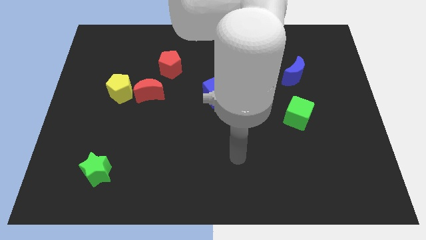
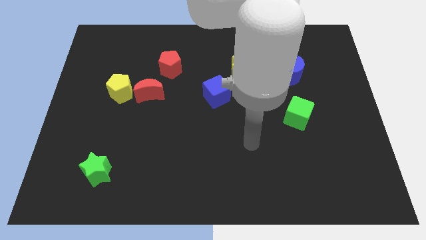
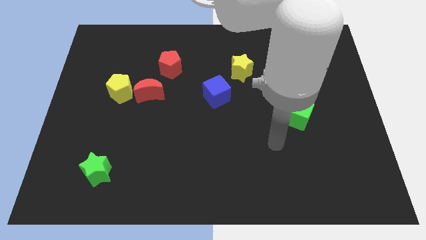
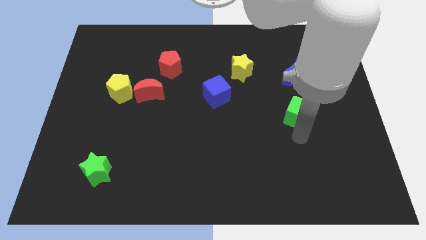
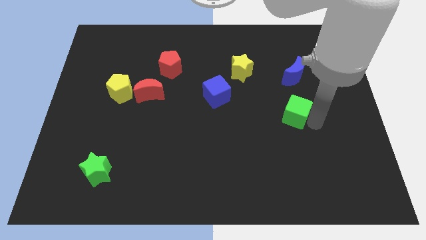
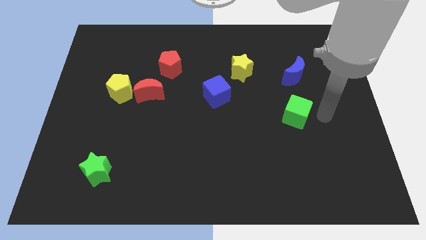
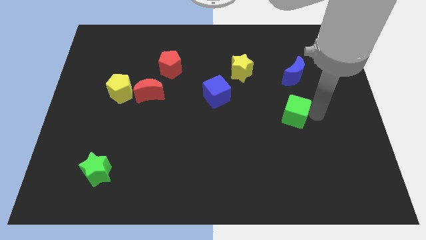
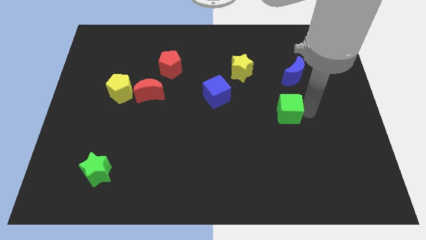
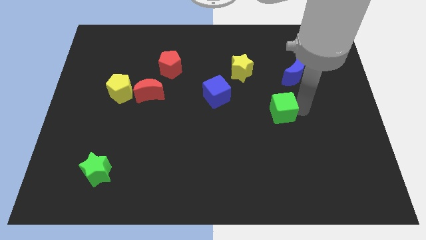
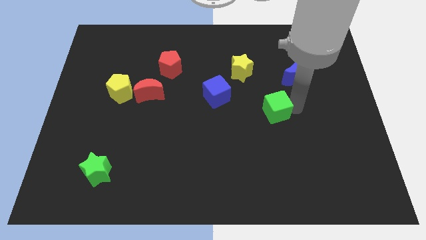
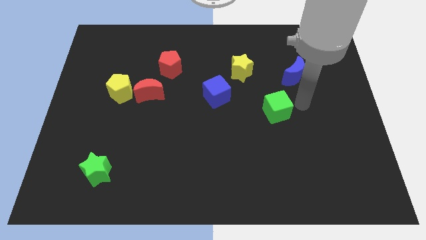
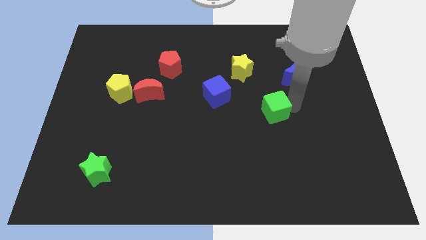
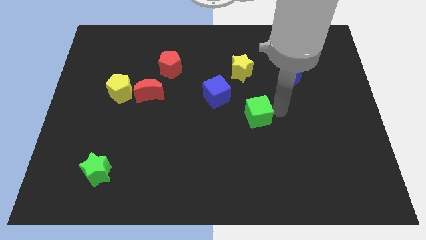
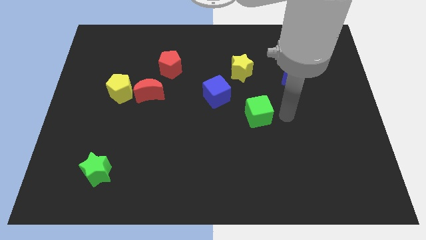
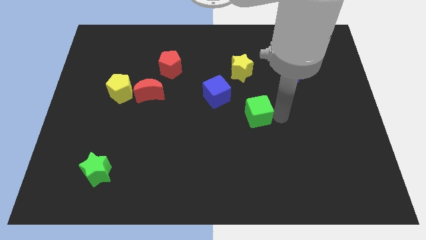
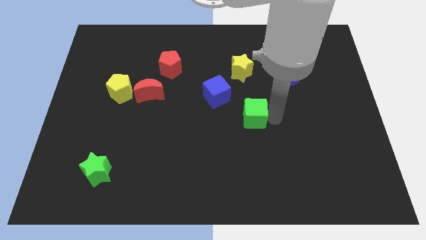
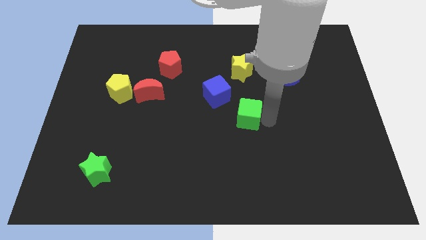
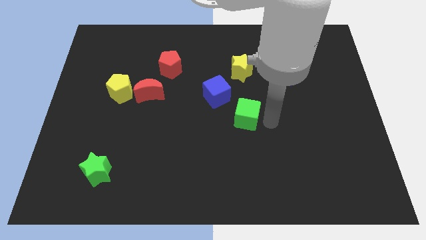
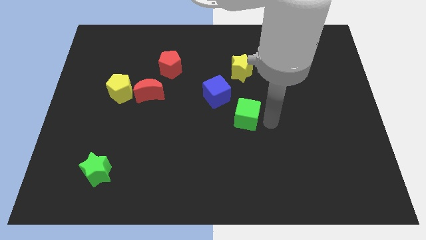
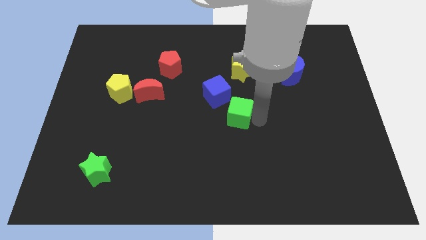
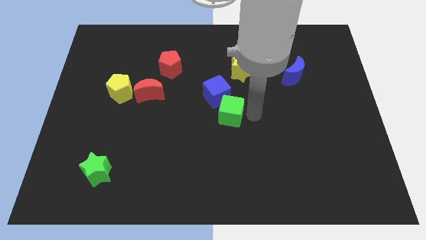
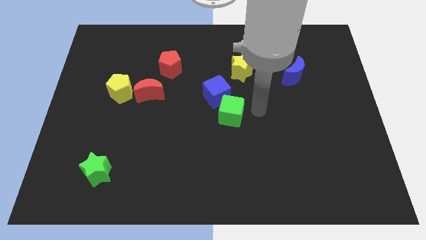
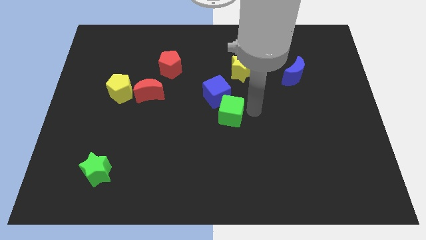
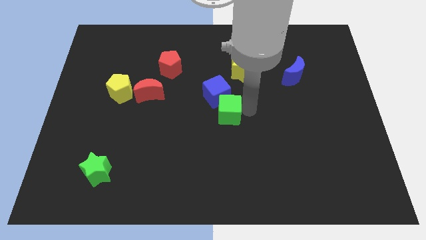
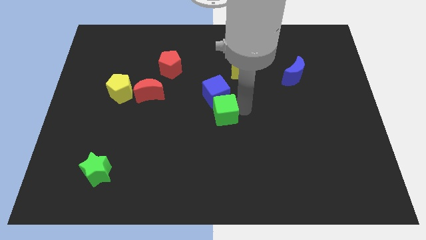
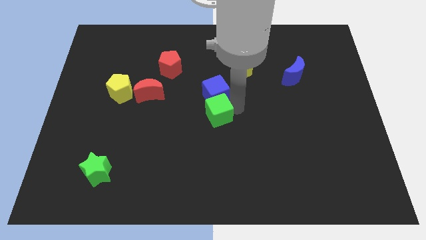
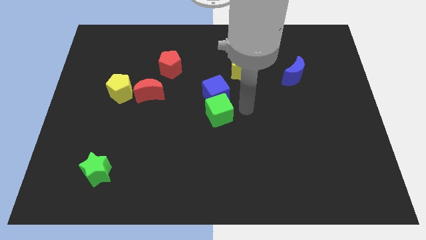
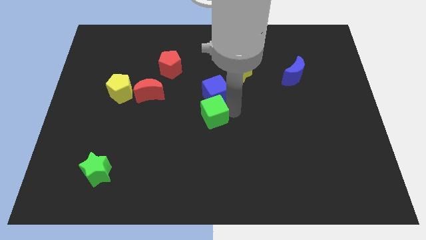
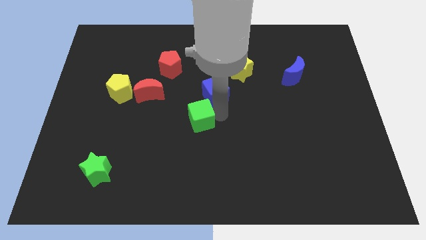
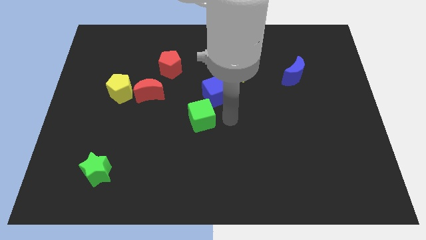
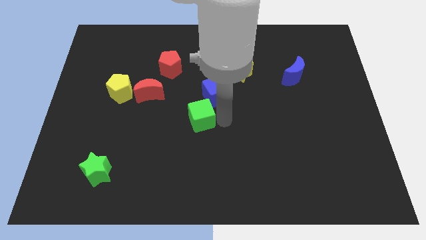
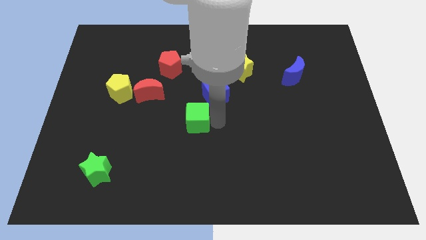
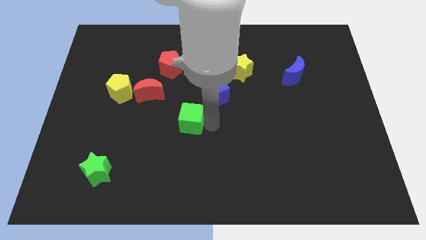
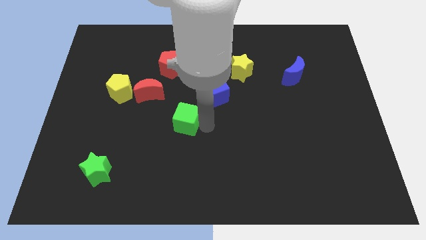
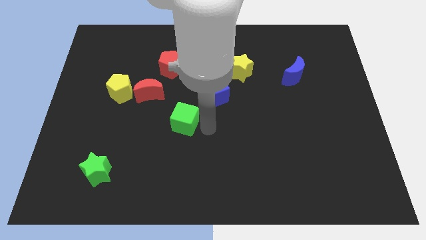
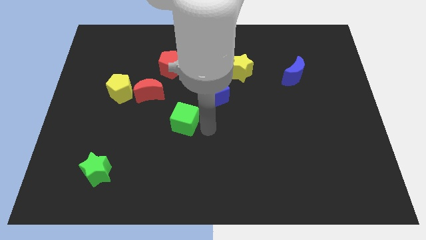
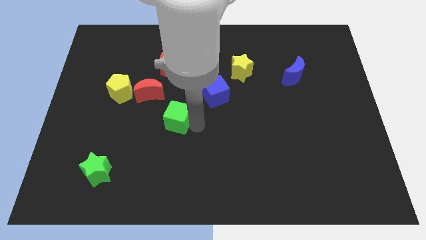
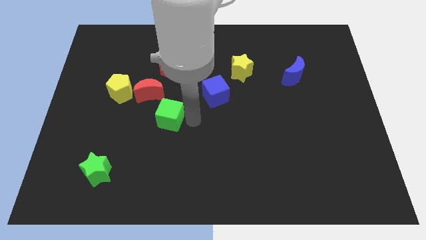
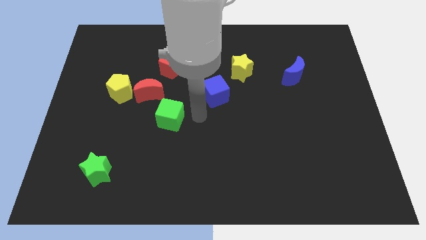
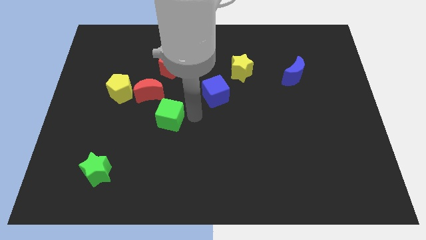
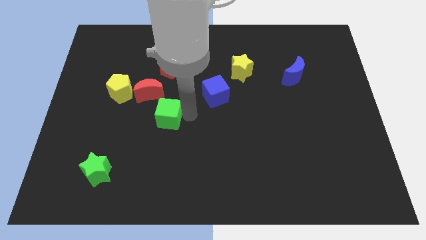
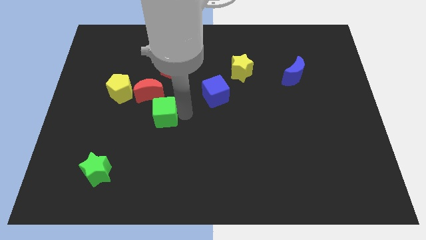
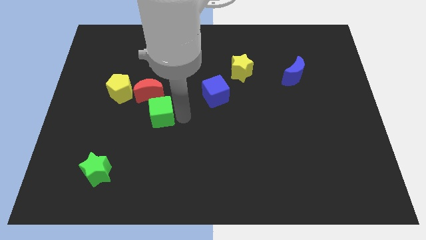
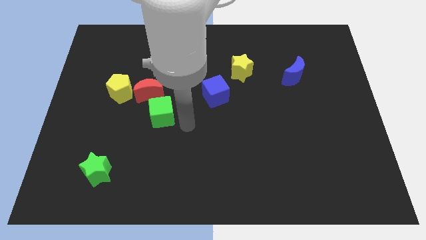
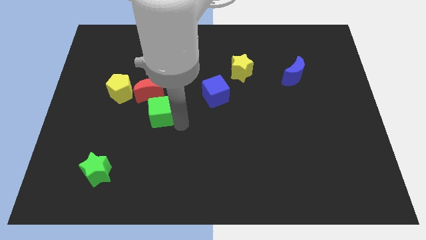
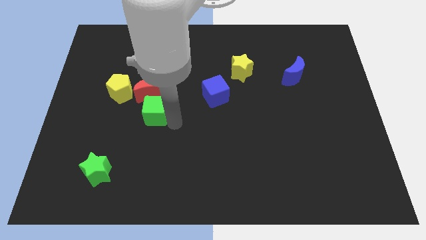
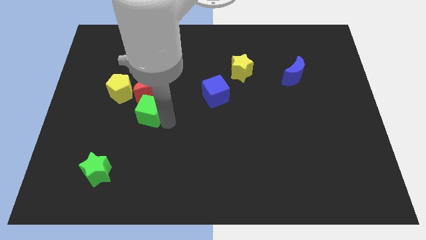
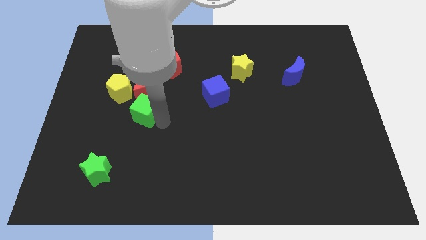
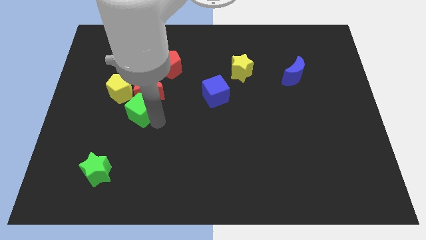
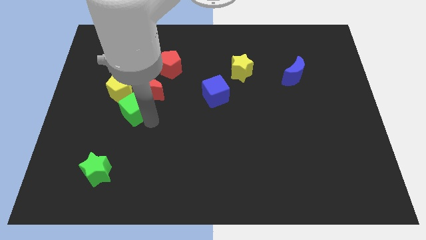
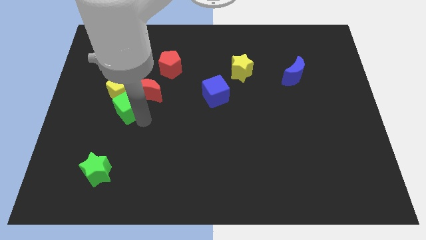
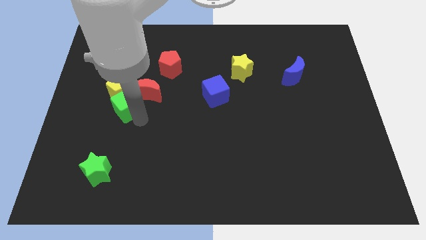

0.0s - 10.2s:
put the green cube next to the yellow pentagon

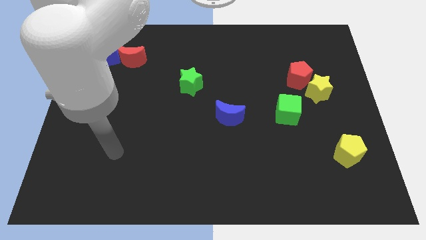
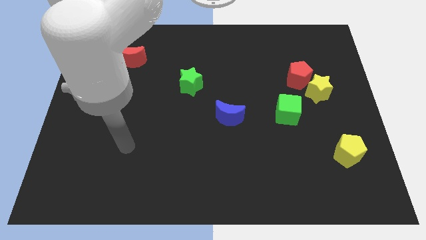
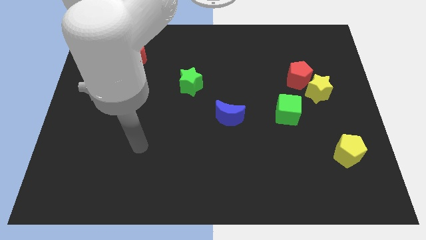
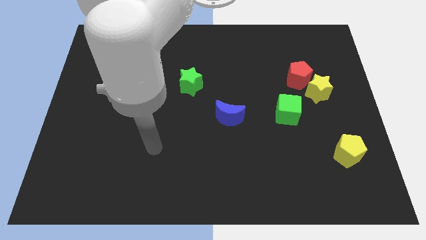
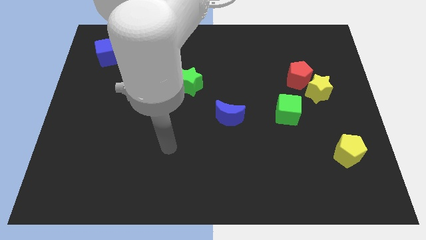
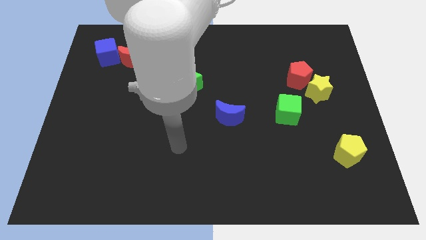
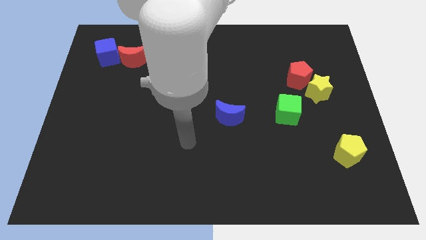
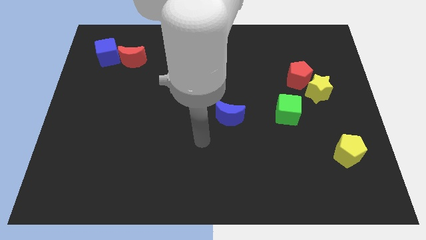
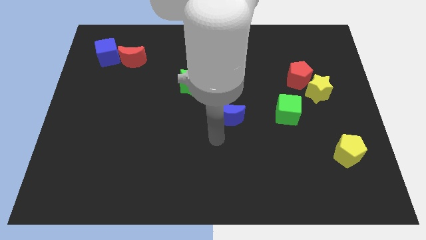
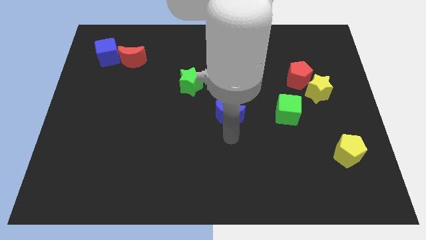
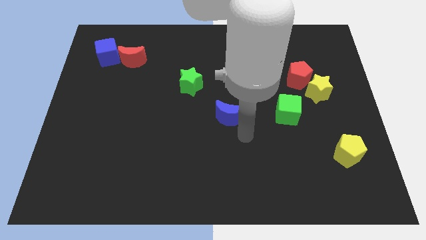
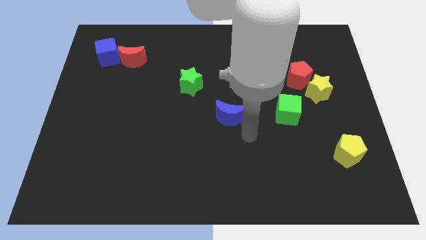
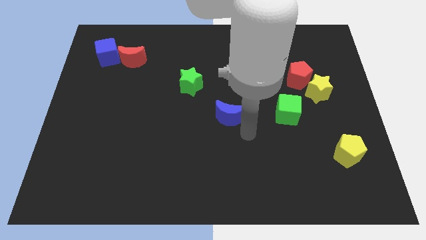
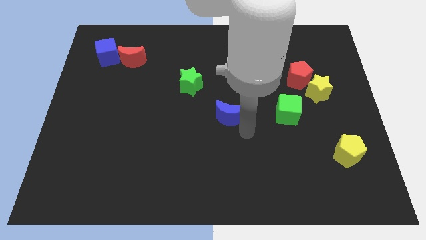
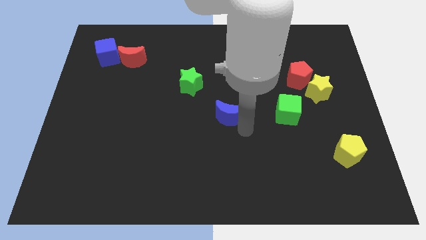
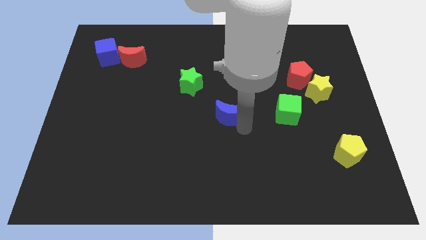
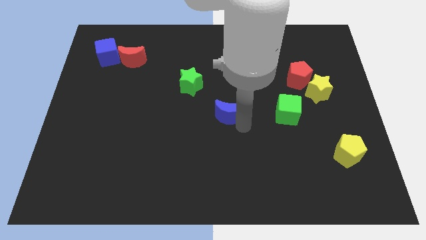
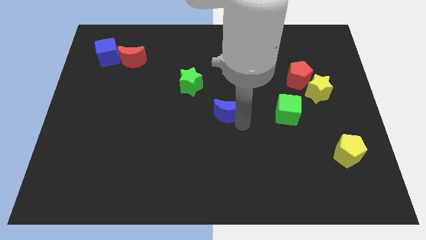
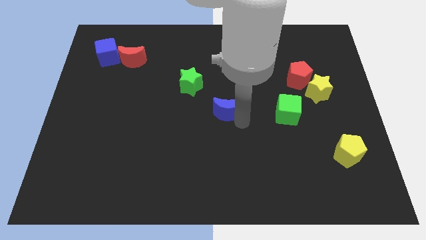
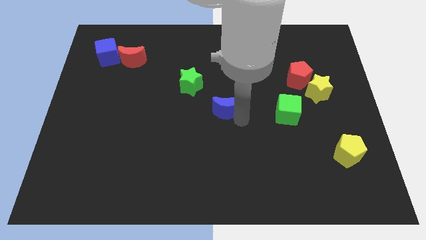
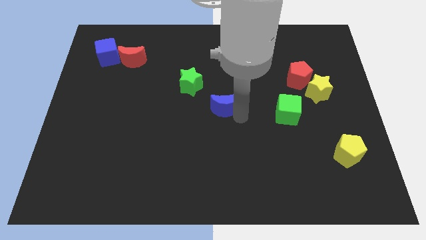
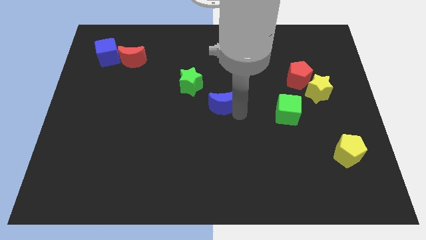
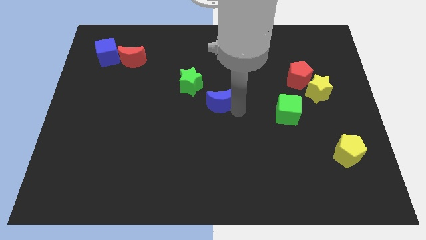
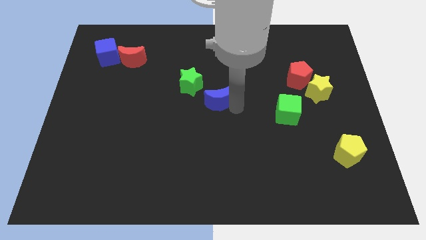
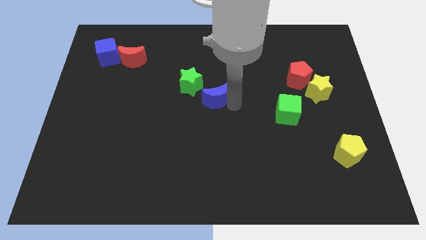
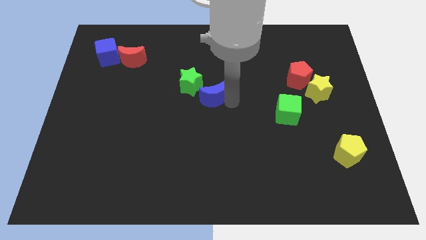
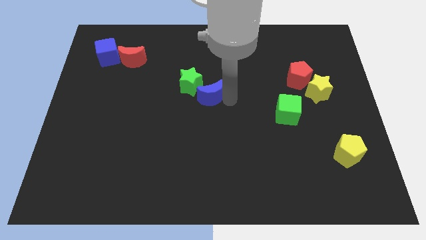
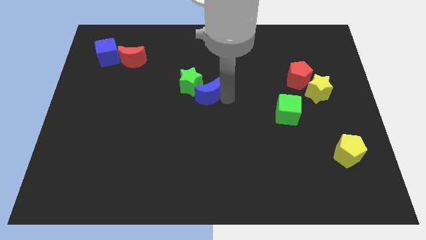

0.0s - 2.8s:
put the blue moon close to the green star

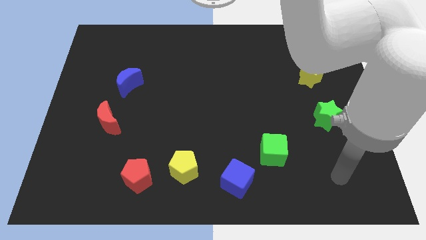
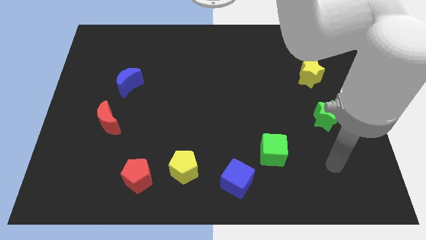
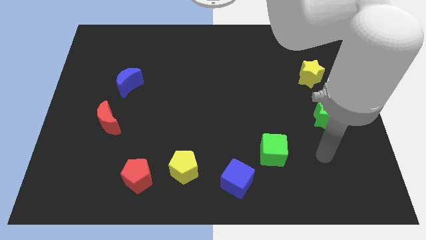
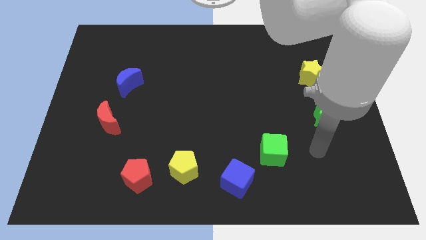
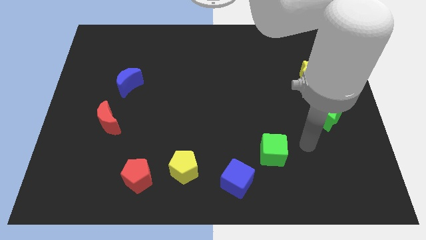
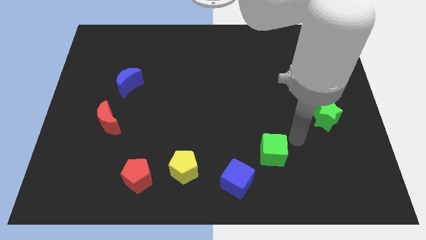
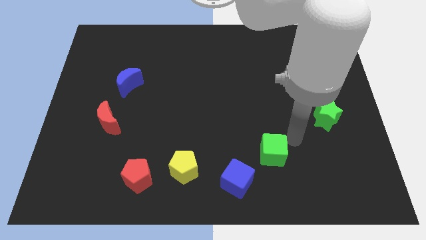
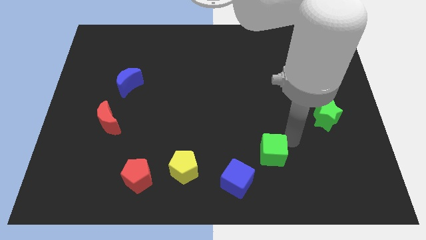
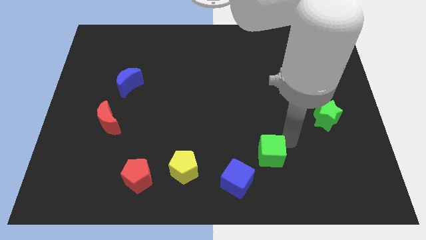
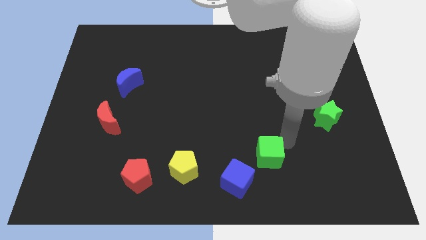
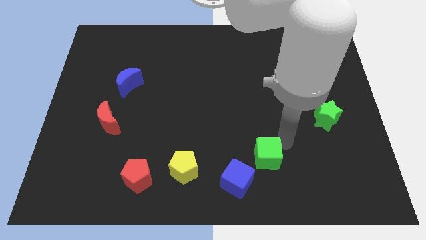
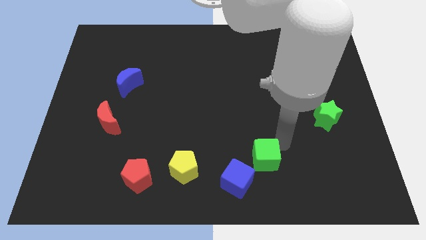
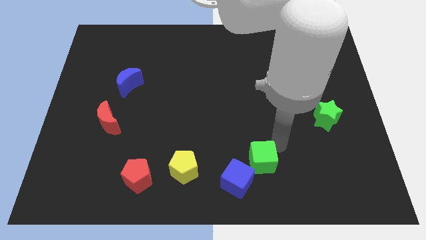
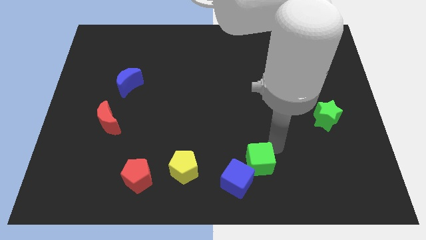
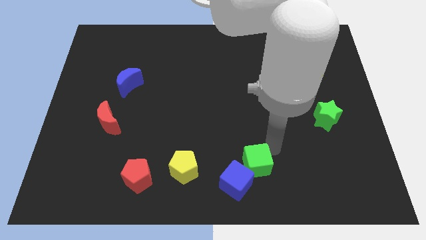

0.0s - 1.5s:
slide the green cube next to the blue cube
